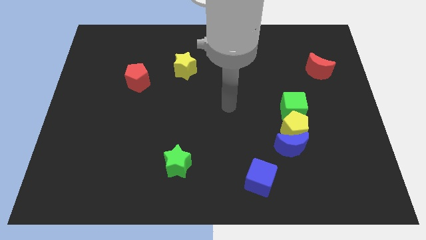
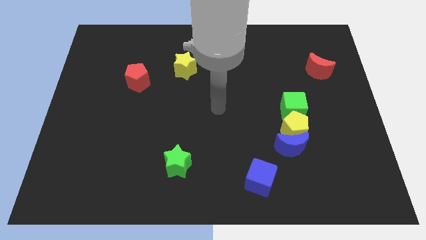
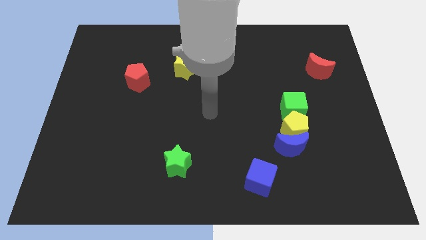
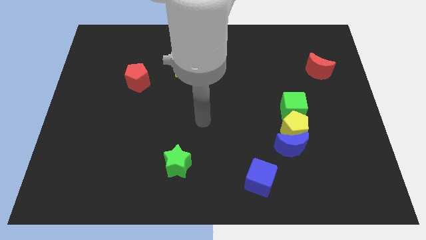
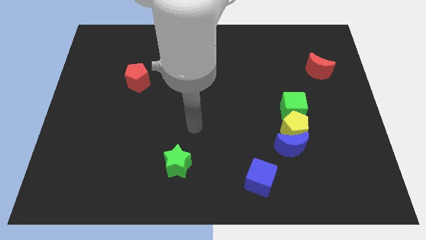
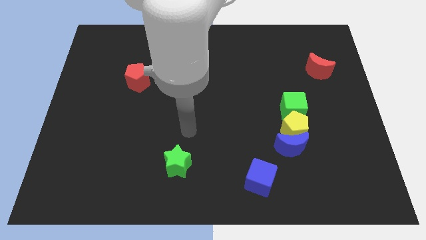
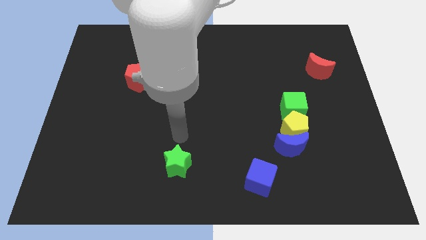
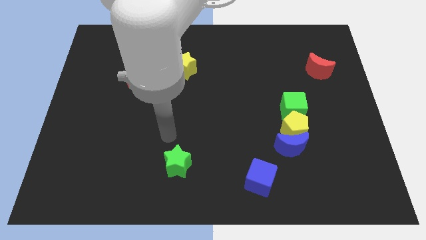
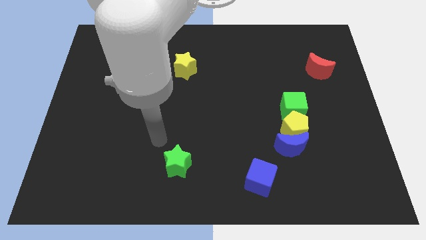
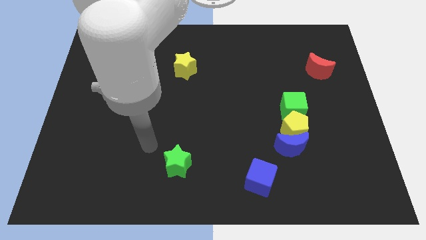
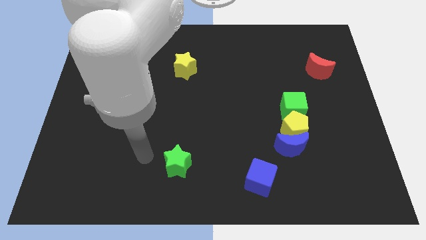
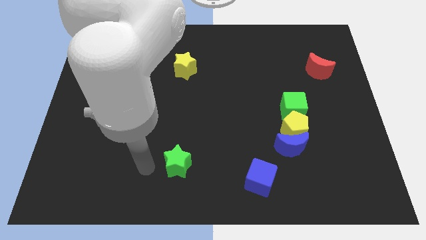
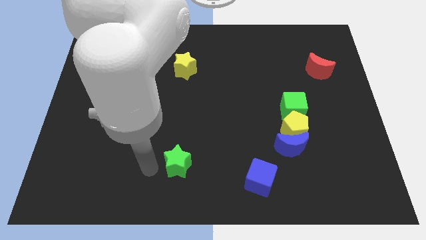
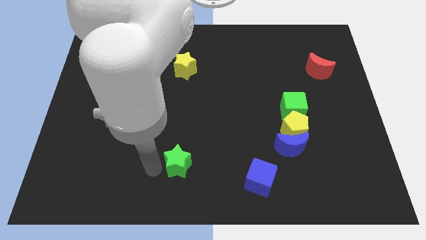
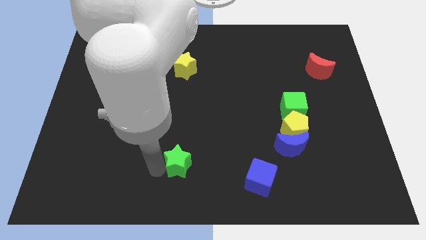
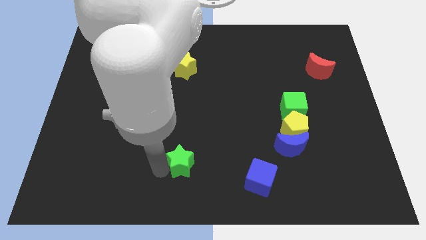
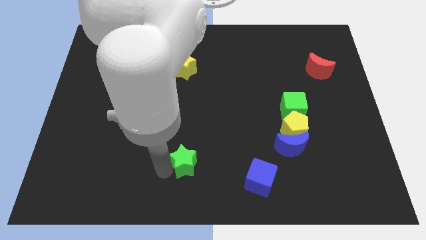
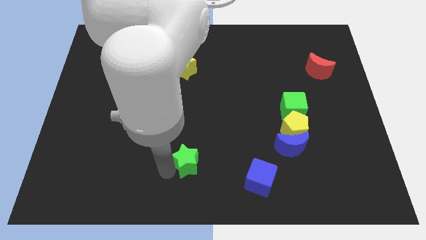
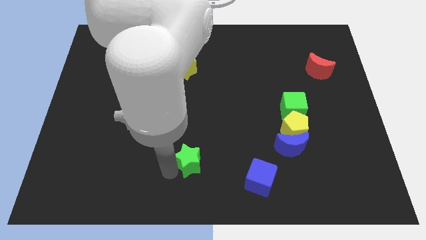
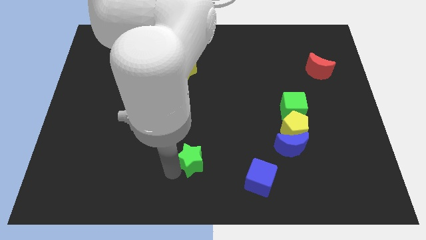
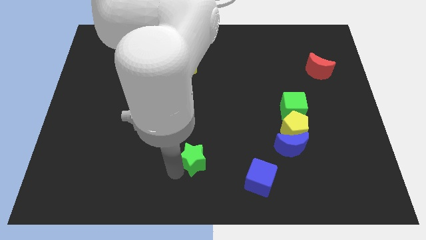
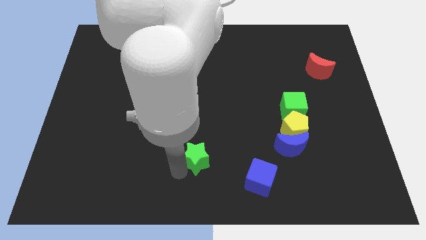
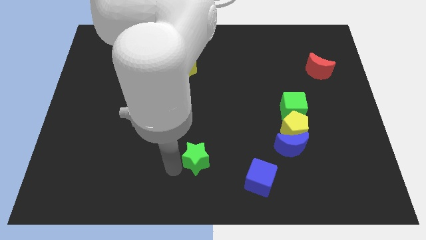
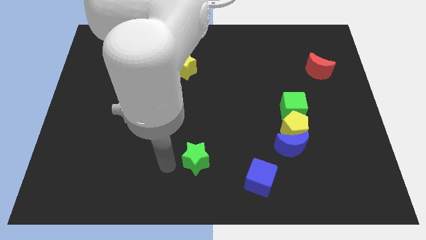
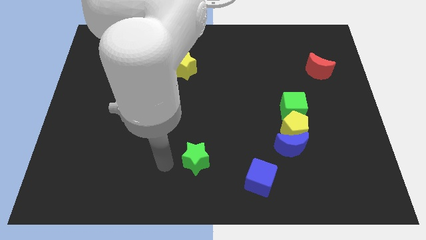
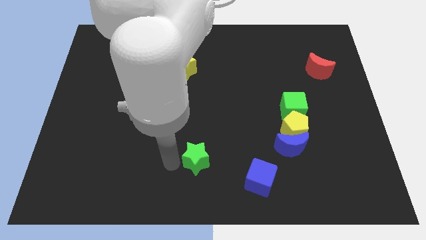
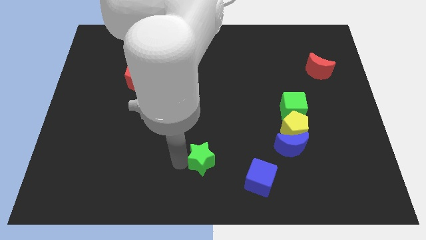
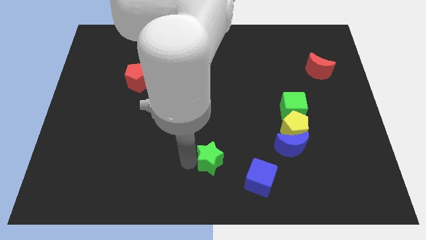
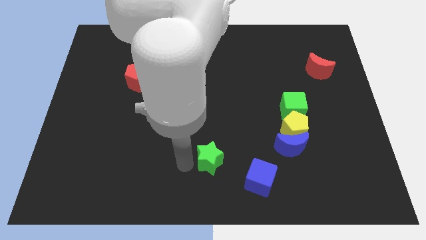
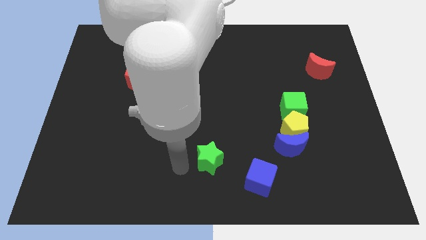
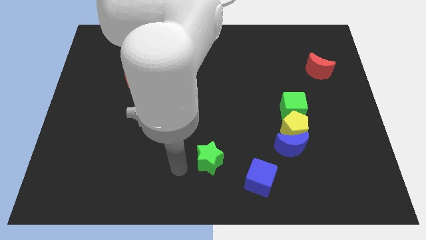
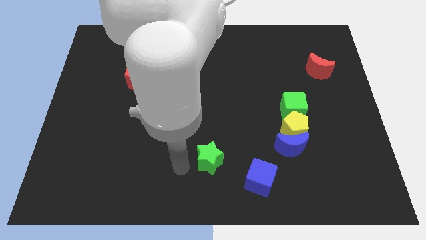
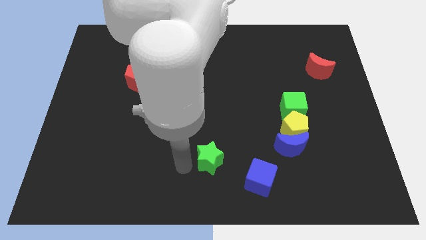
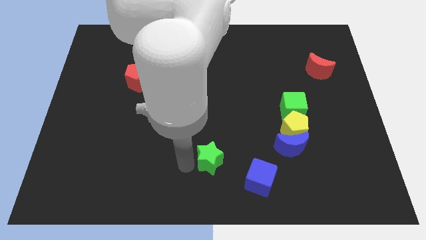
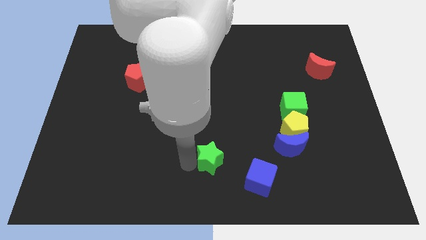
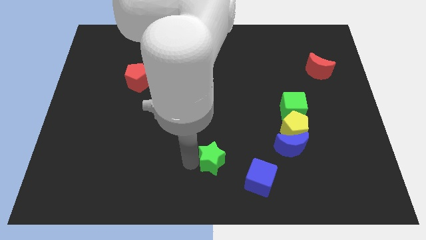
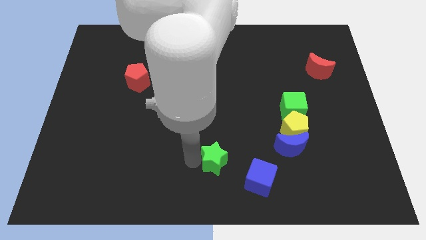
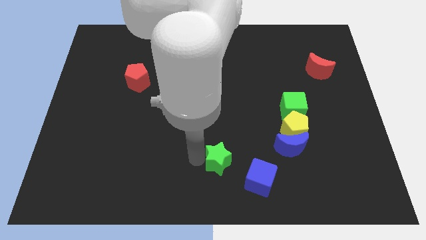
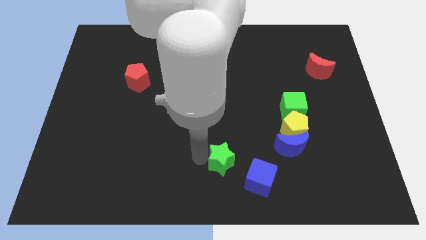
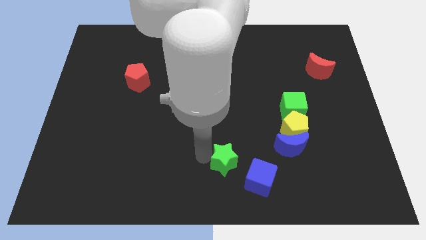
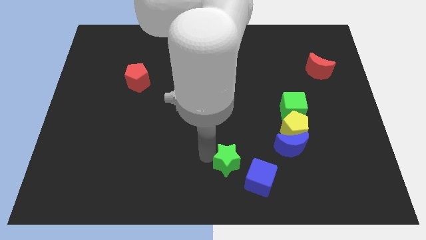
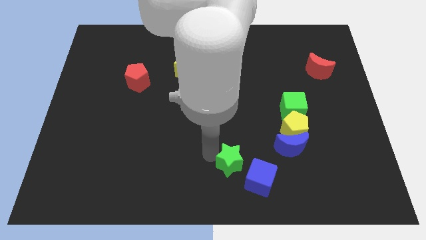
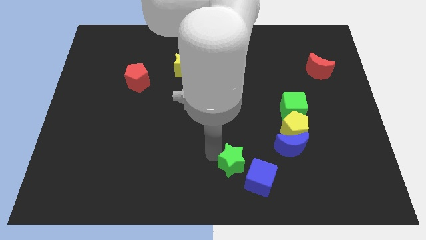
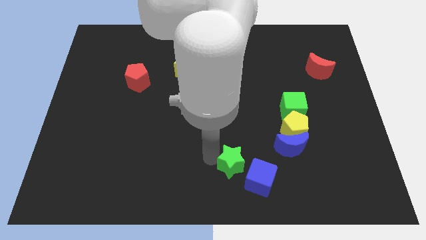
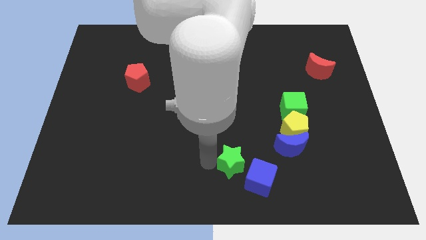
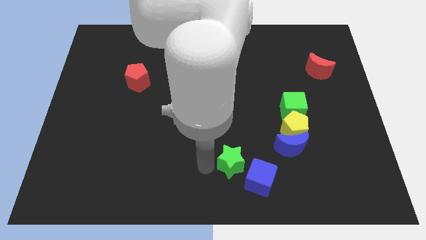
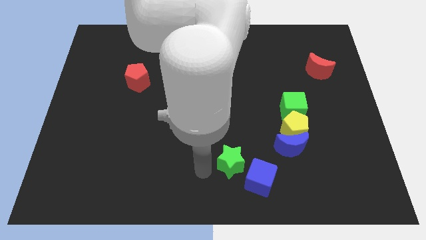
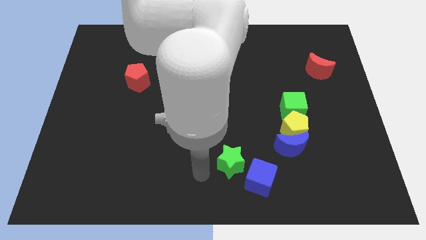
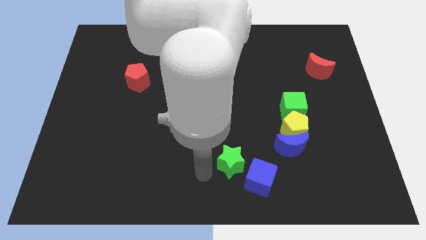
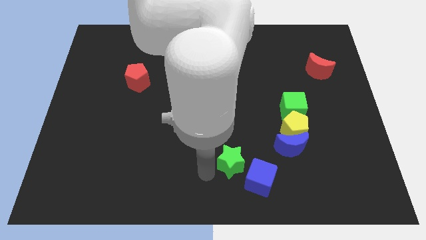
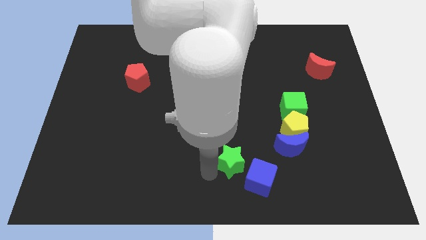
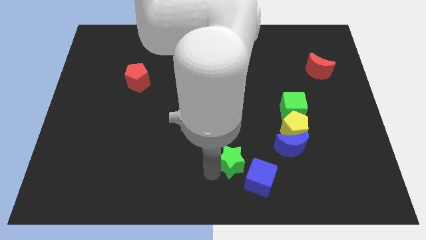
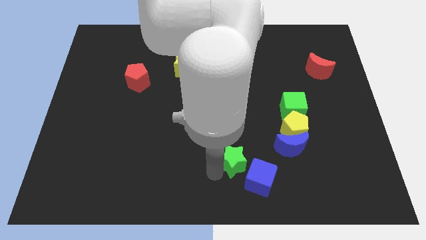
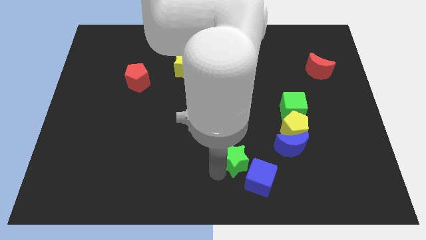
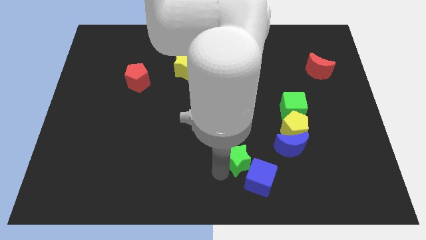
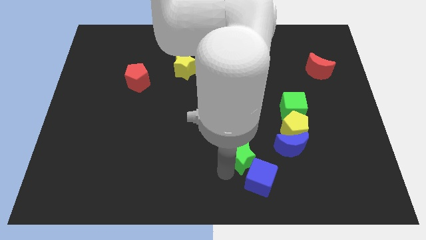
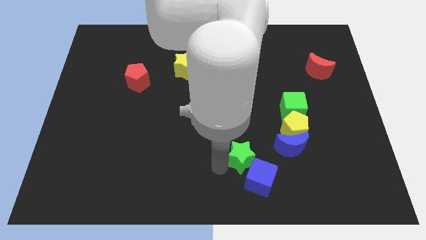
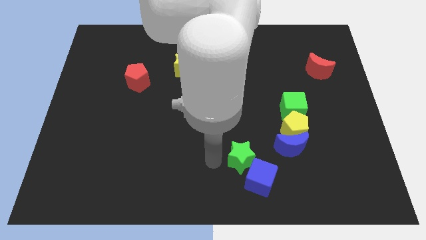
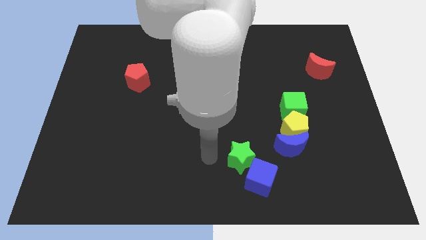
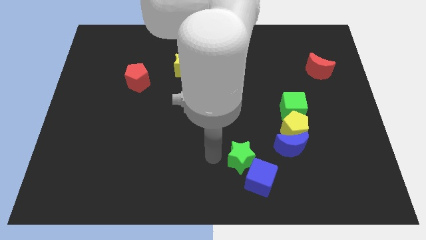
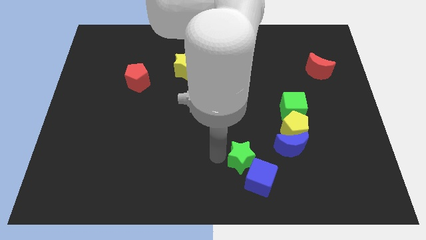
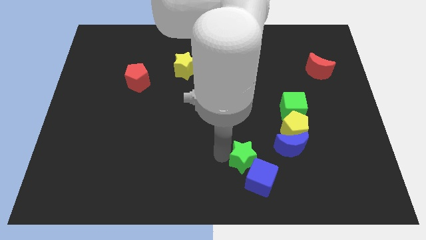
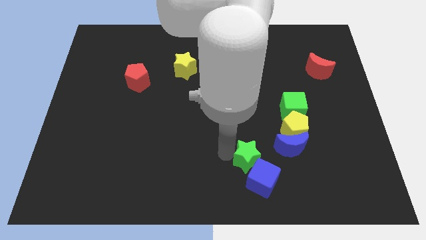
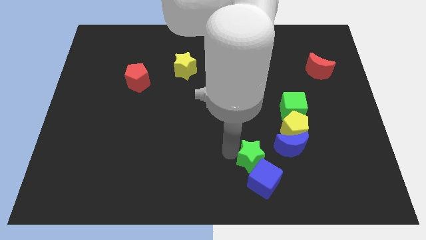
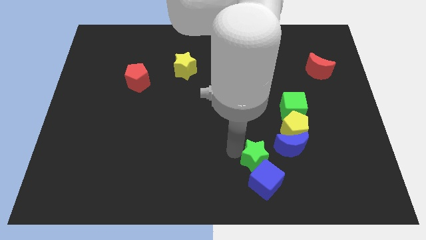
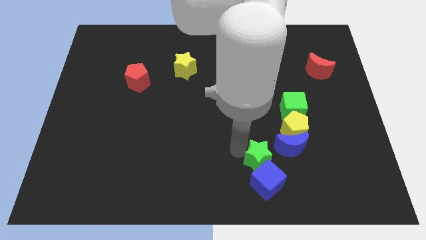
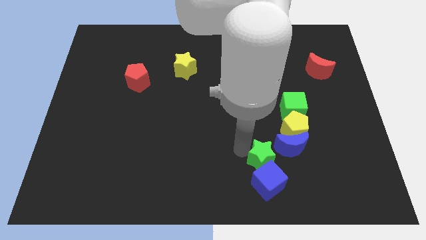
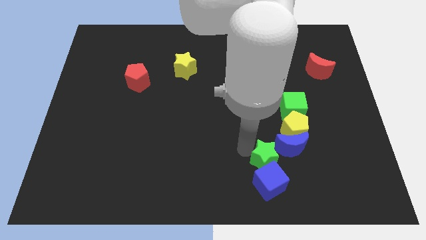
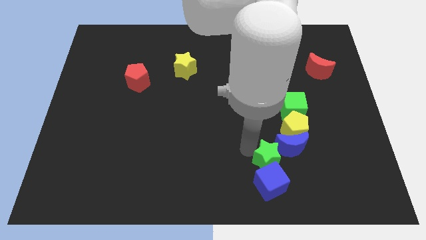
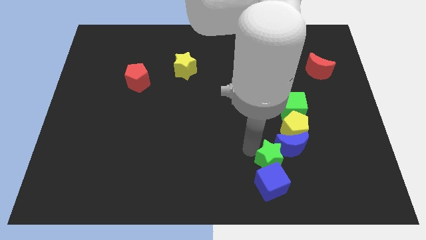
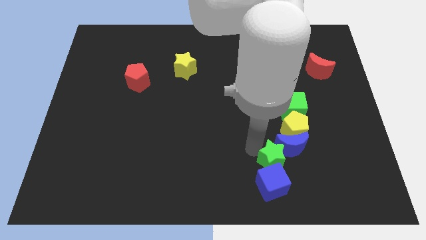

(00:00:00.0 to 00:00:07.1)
move the green star right

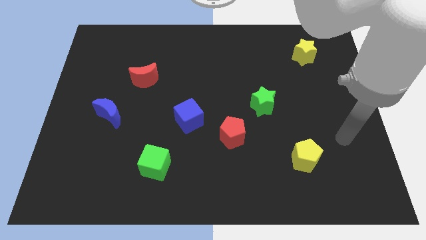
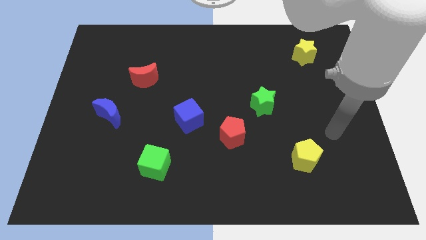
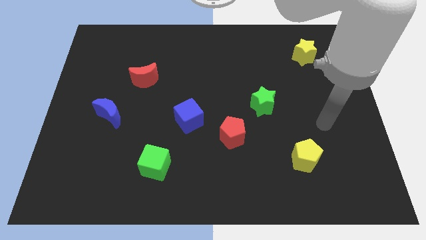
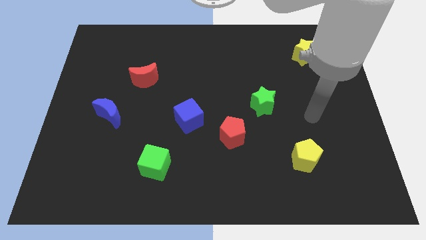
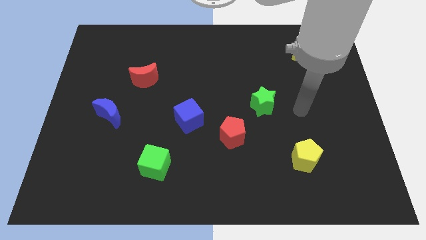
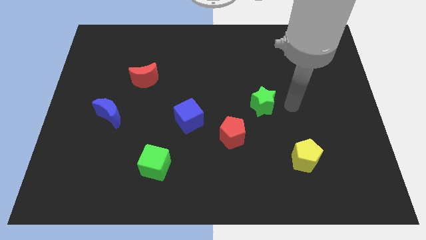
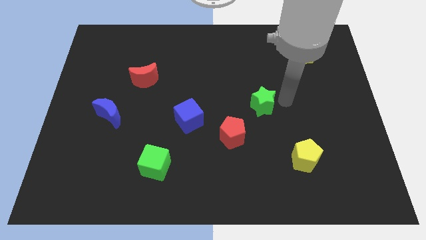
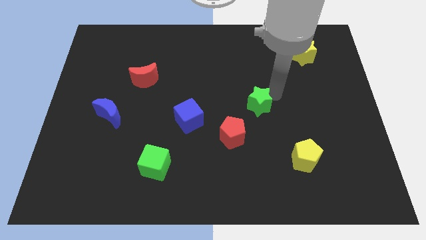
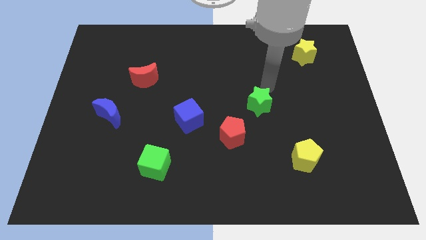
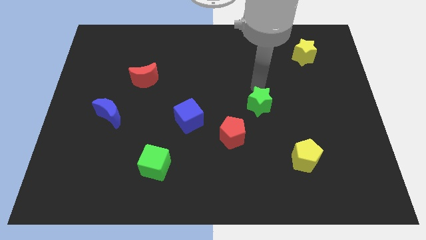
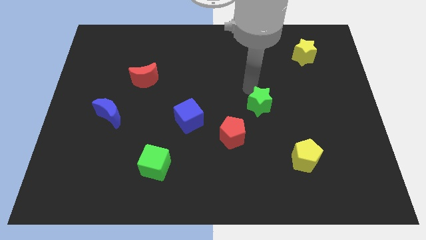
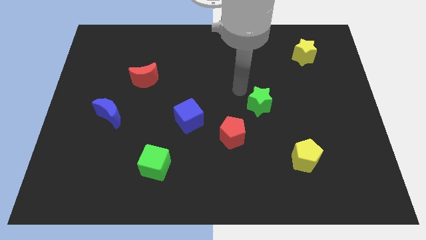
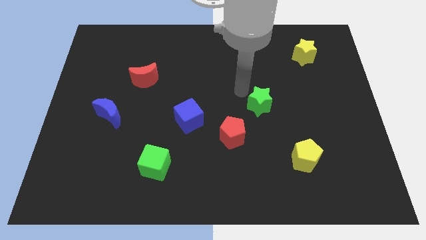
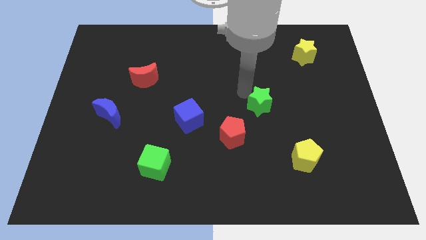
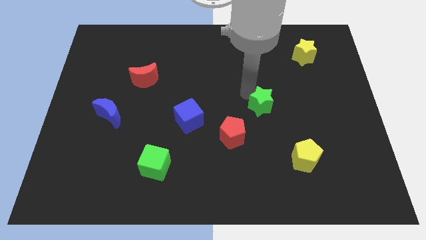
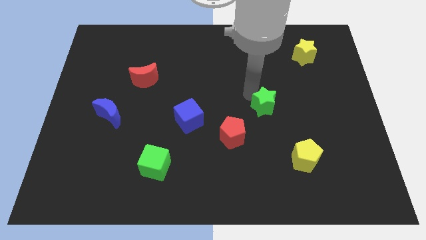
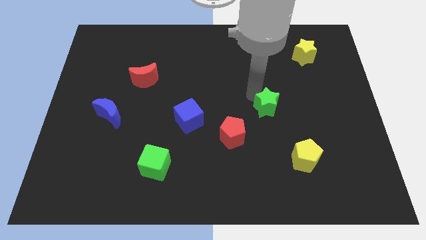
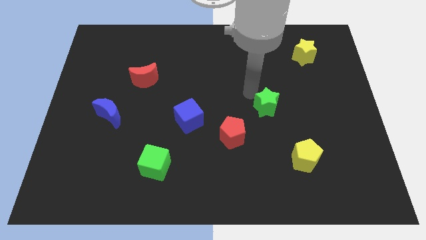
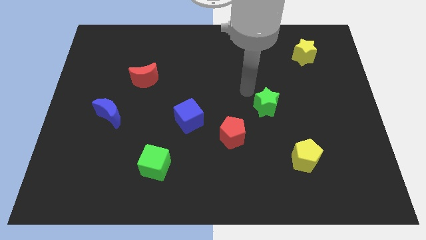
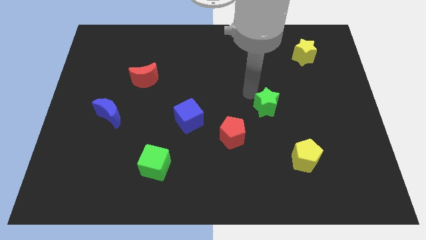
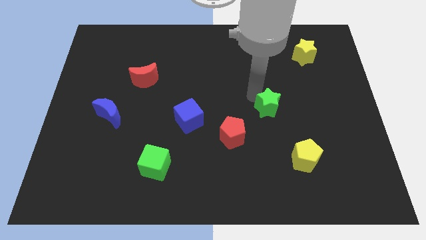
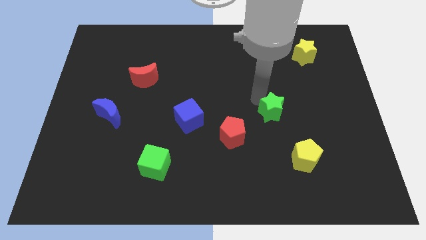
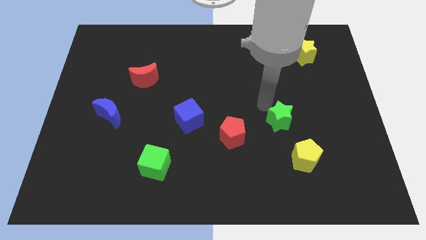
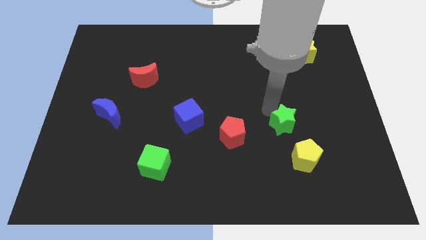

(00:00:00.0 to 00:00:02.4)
move the green star downwards and then to the right slightly
